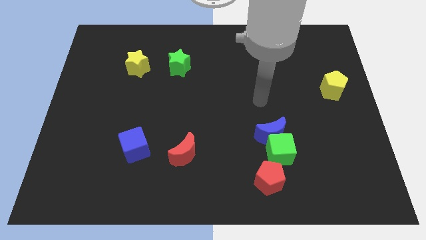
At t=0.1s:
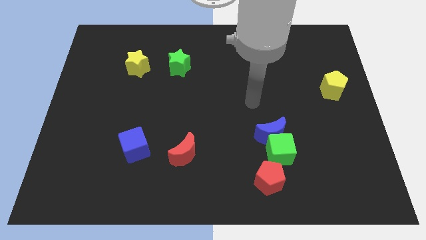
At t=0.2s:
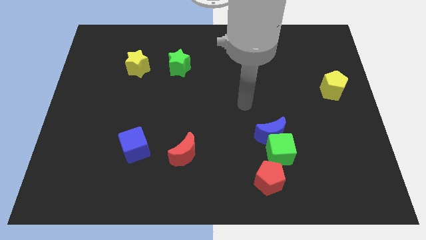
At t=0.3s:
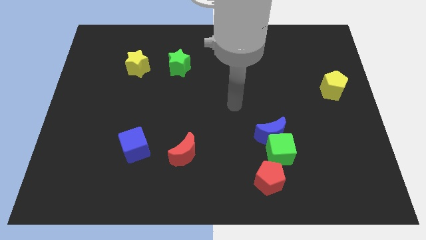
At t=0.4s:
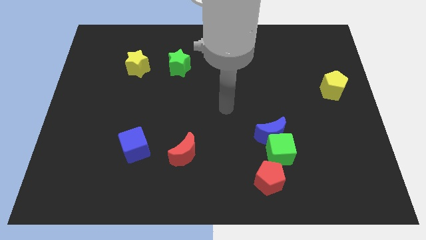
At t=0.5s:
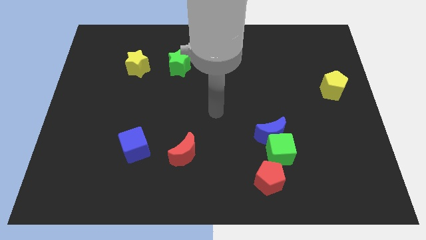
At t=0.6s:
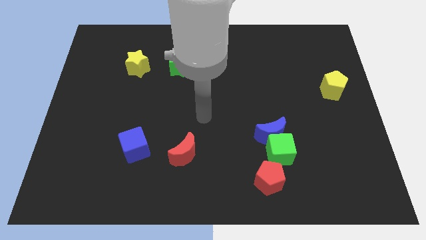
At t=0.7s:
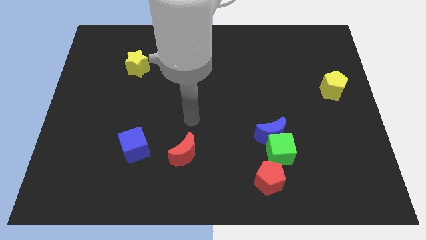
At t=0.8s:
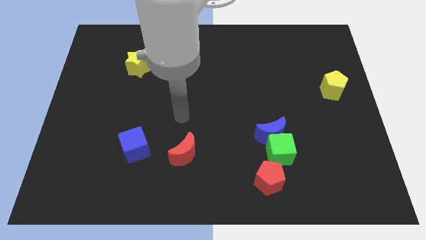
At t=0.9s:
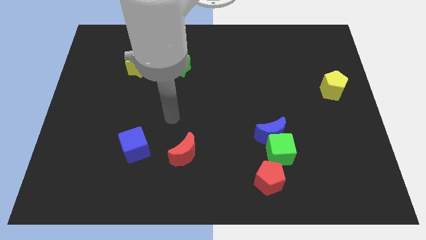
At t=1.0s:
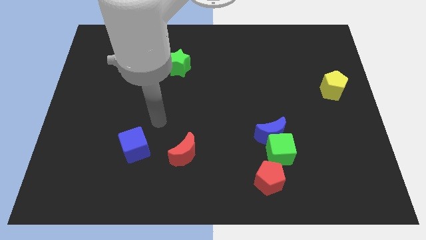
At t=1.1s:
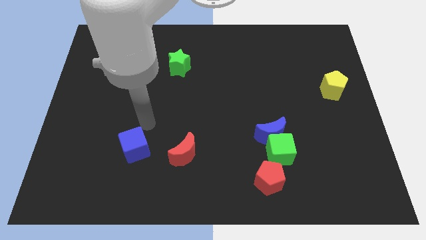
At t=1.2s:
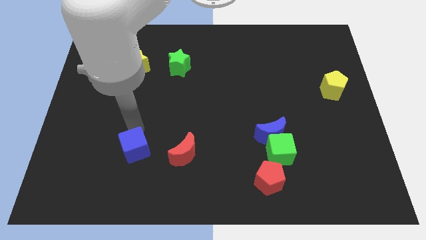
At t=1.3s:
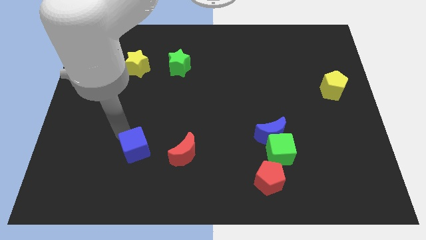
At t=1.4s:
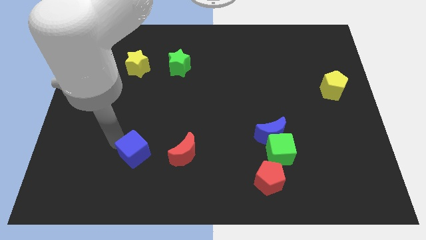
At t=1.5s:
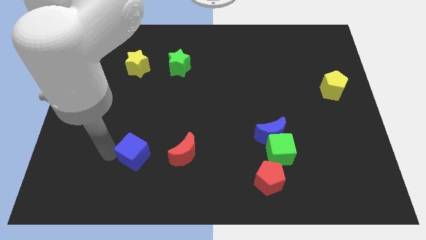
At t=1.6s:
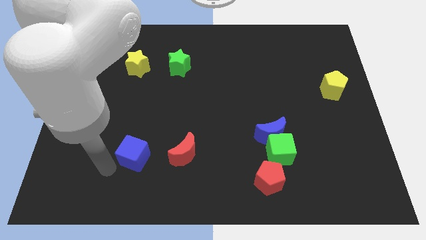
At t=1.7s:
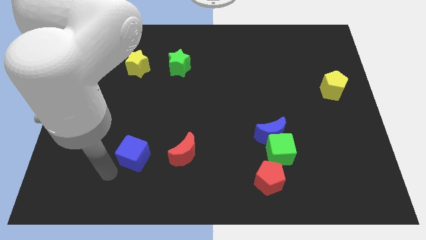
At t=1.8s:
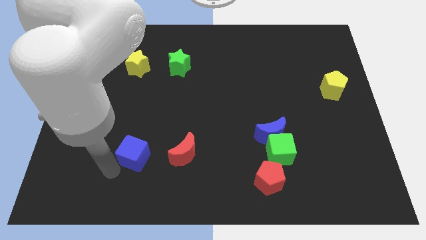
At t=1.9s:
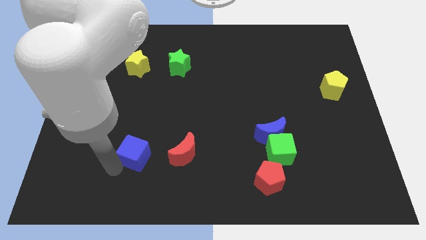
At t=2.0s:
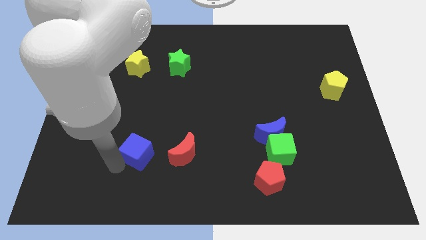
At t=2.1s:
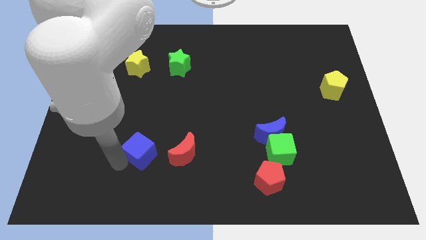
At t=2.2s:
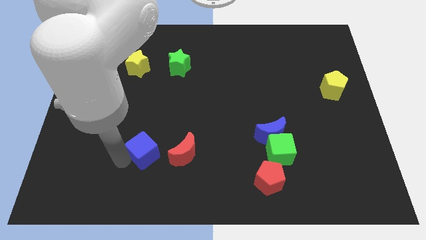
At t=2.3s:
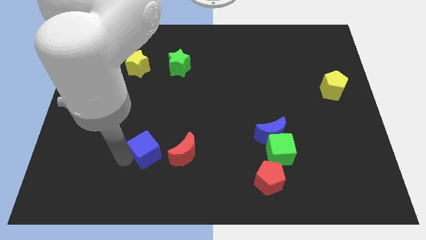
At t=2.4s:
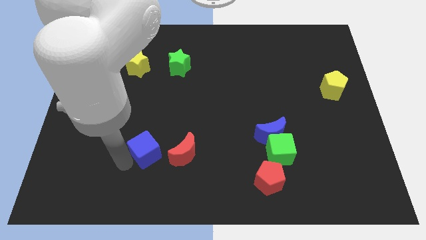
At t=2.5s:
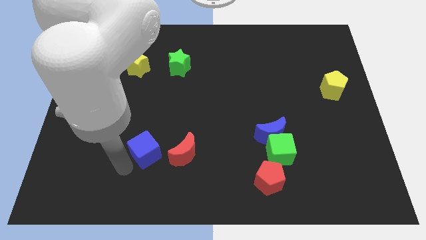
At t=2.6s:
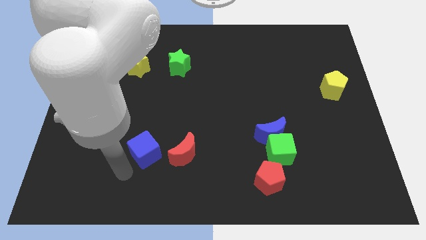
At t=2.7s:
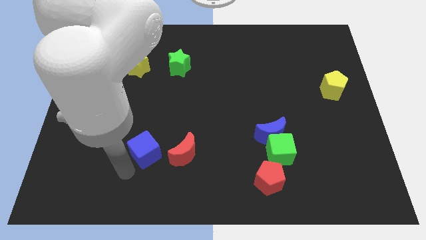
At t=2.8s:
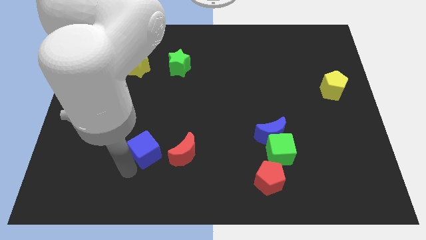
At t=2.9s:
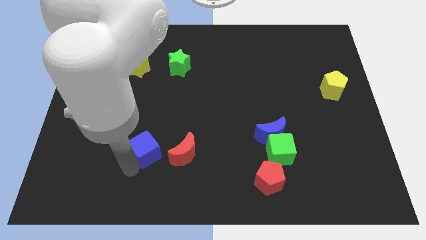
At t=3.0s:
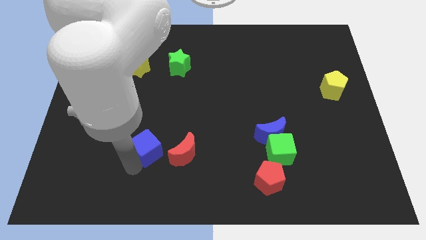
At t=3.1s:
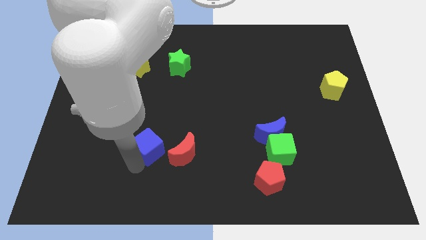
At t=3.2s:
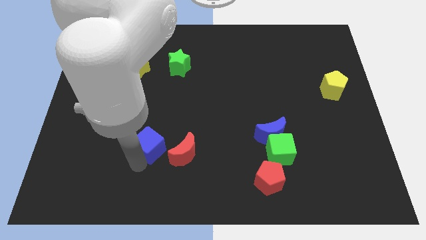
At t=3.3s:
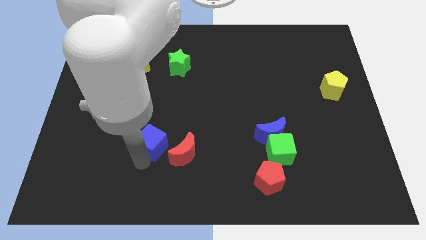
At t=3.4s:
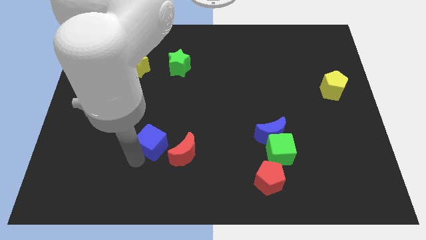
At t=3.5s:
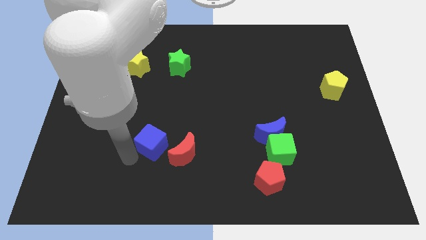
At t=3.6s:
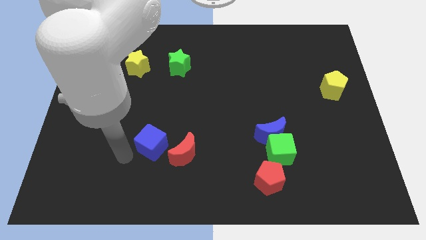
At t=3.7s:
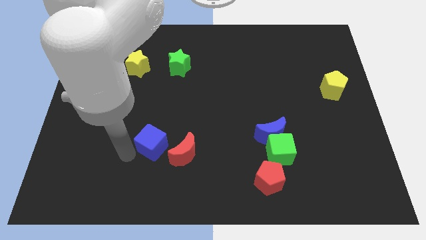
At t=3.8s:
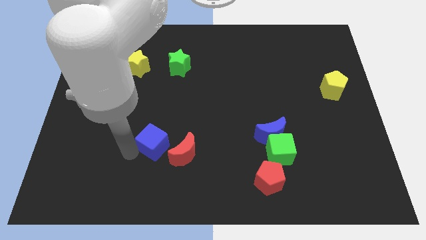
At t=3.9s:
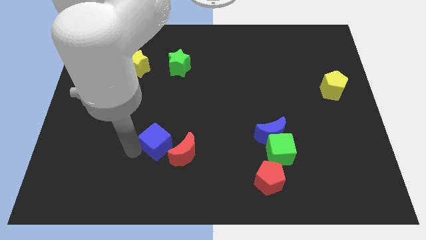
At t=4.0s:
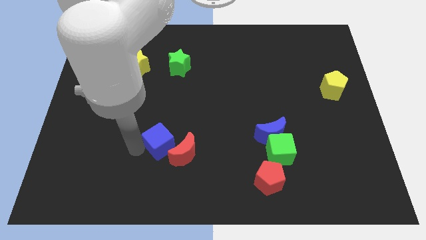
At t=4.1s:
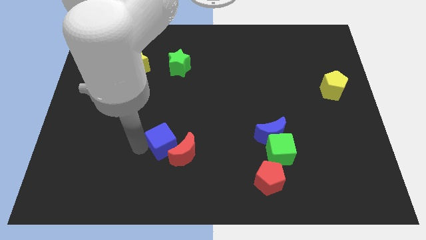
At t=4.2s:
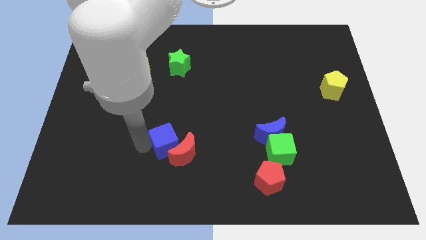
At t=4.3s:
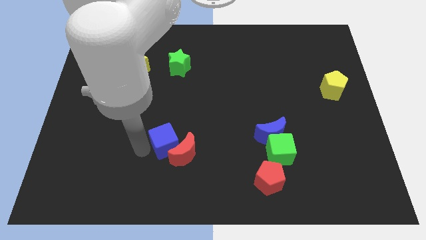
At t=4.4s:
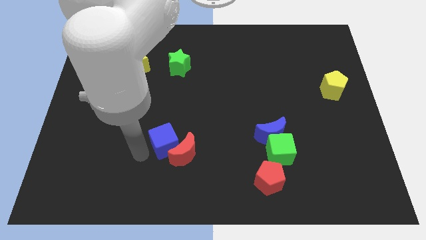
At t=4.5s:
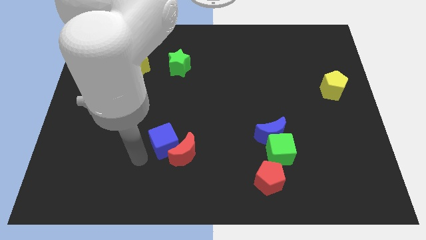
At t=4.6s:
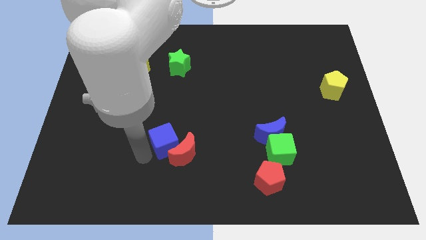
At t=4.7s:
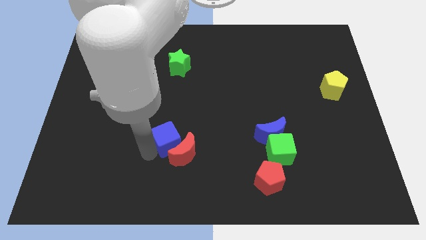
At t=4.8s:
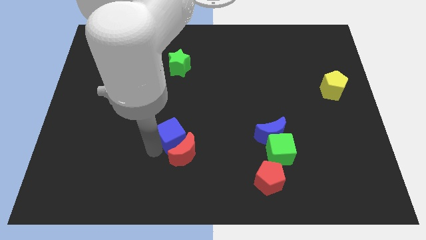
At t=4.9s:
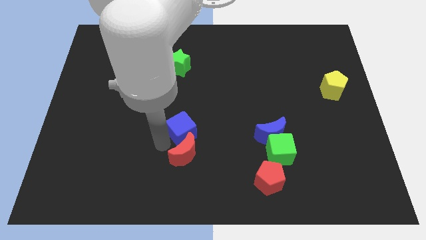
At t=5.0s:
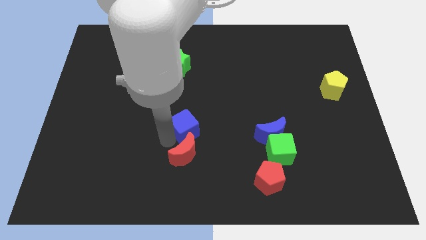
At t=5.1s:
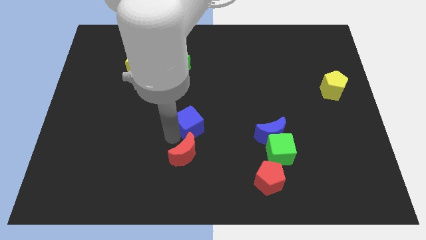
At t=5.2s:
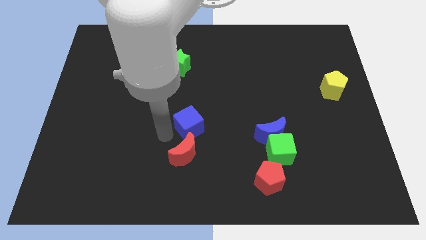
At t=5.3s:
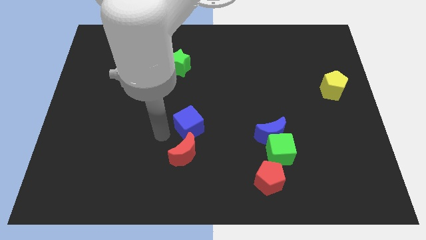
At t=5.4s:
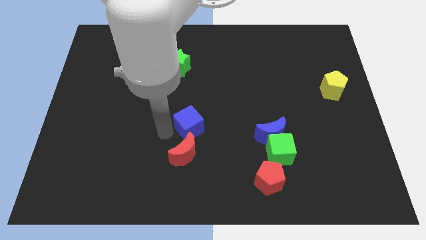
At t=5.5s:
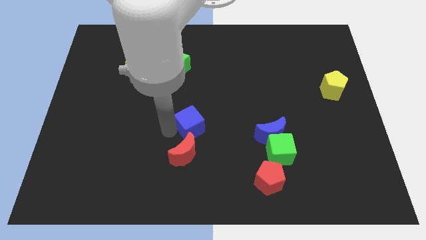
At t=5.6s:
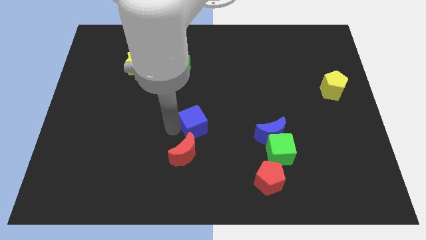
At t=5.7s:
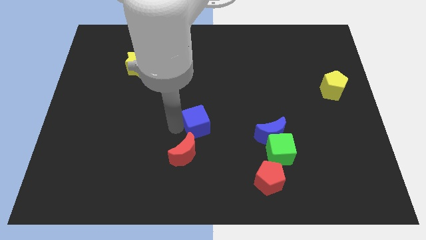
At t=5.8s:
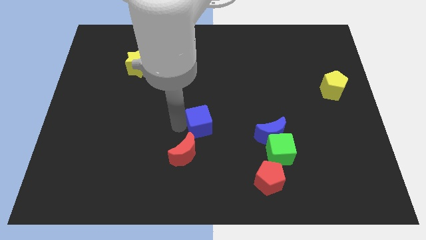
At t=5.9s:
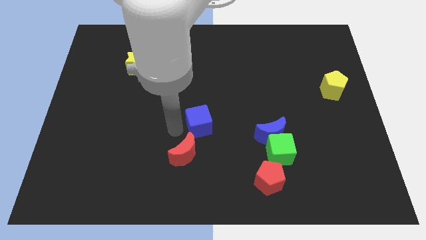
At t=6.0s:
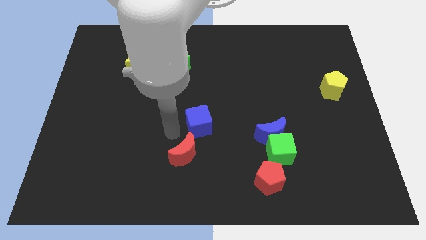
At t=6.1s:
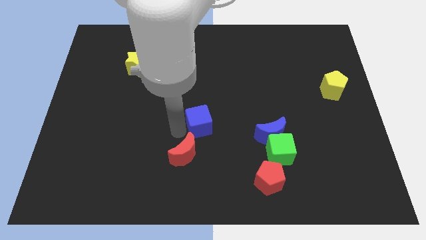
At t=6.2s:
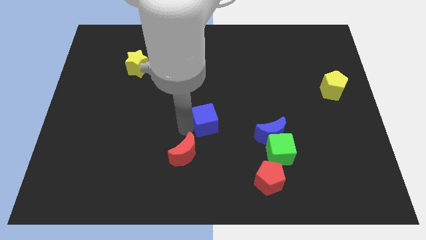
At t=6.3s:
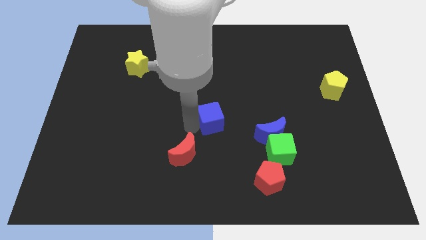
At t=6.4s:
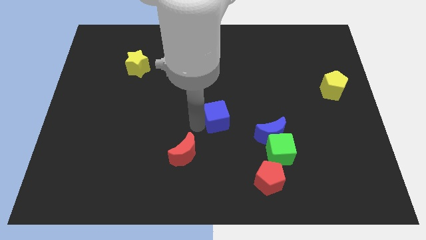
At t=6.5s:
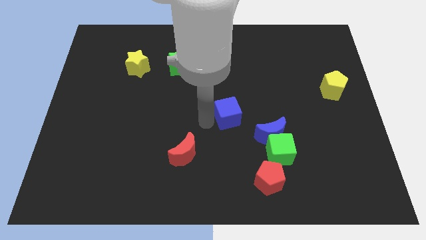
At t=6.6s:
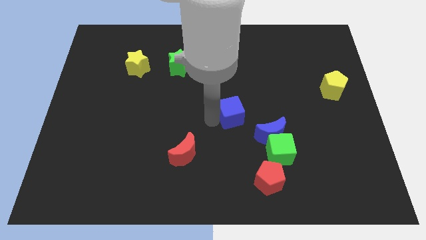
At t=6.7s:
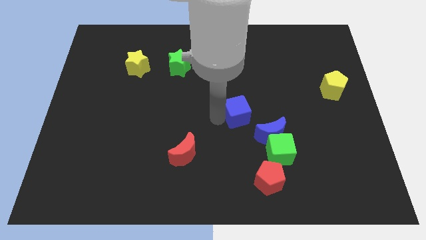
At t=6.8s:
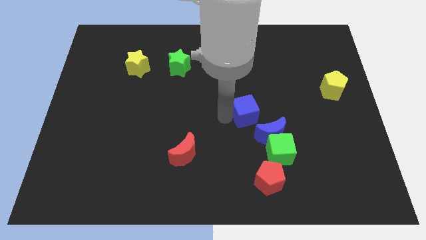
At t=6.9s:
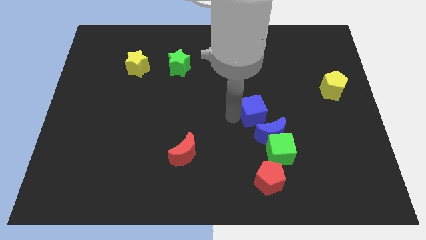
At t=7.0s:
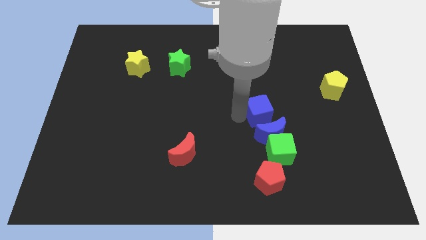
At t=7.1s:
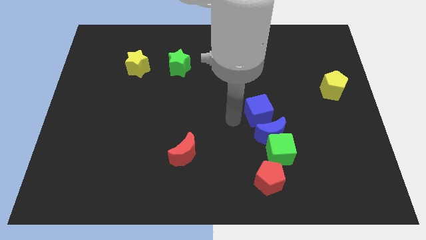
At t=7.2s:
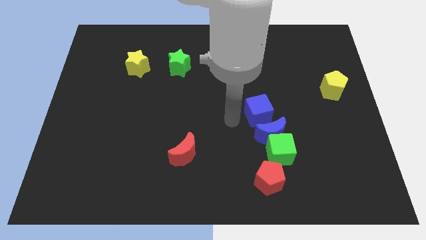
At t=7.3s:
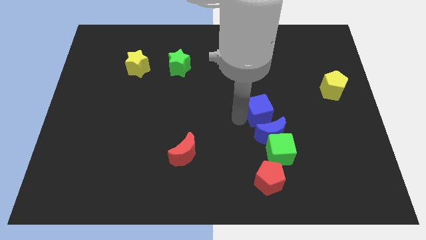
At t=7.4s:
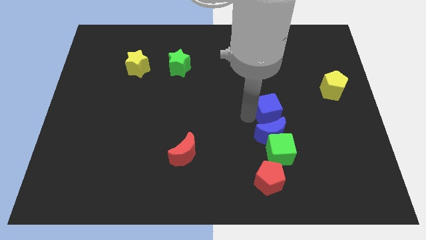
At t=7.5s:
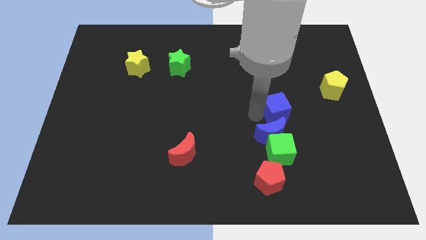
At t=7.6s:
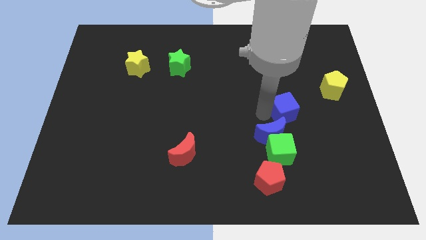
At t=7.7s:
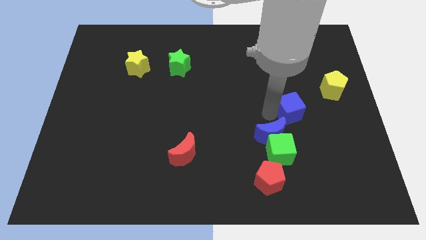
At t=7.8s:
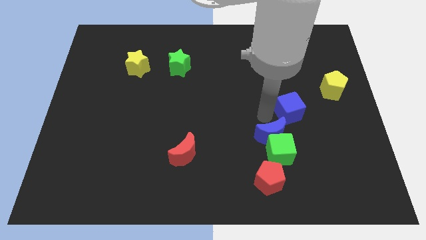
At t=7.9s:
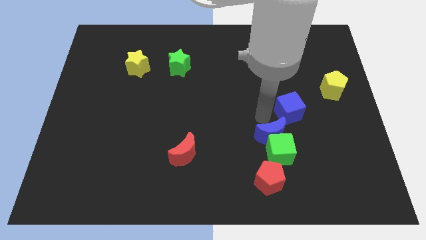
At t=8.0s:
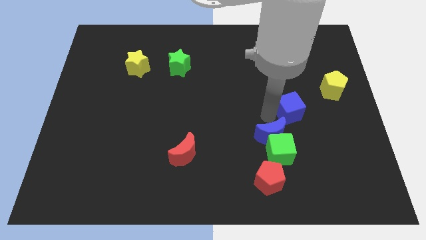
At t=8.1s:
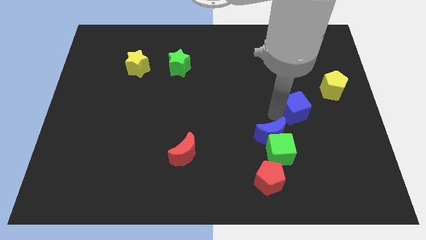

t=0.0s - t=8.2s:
put the blue cube diagonally down and to the left of the yellow pentagon
